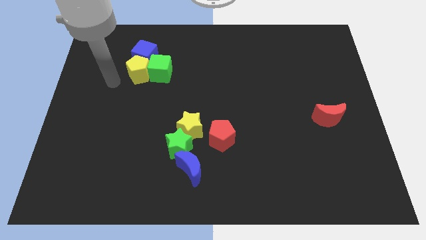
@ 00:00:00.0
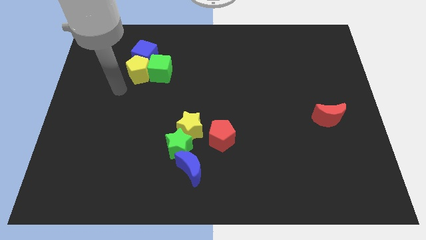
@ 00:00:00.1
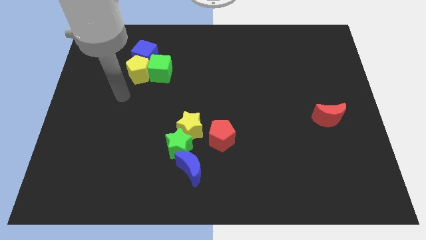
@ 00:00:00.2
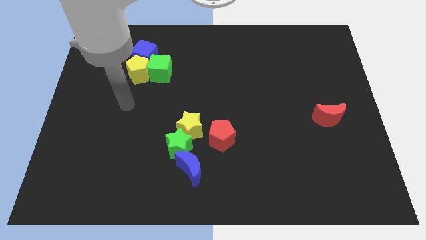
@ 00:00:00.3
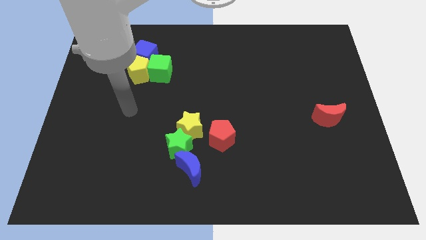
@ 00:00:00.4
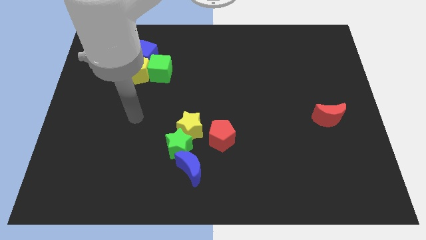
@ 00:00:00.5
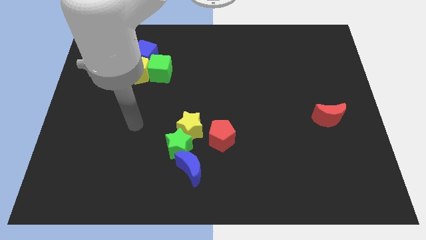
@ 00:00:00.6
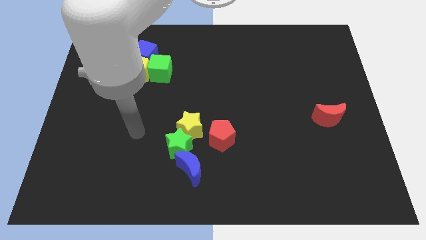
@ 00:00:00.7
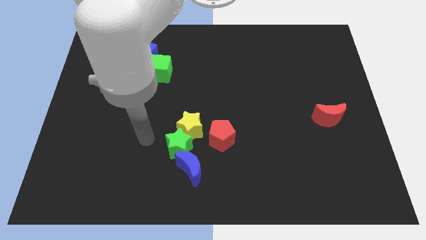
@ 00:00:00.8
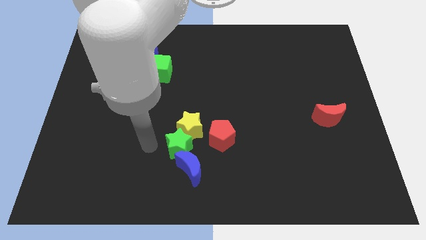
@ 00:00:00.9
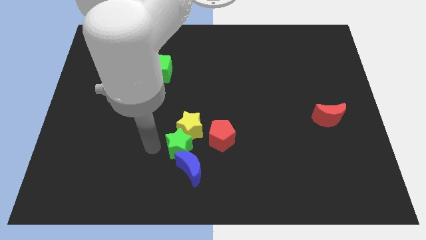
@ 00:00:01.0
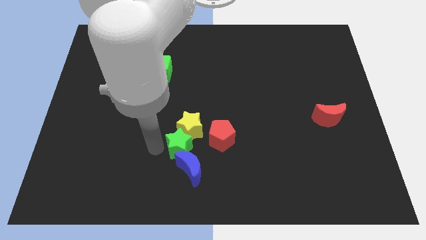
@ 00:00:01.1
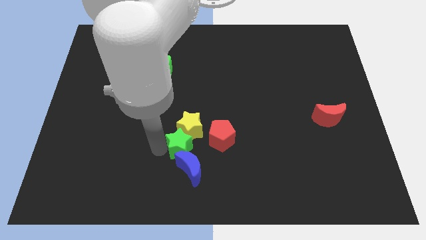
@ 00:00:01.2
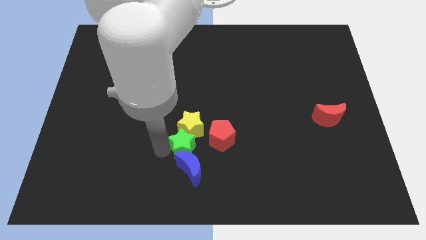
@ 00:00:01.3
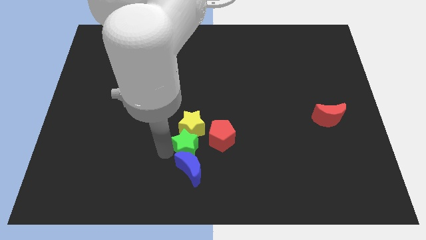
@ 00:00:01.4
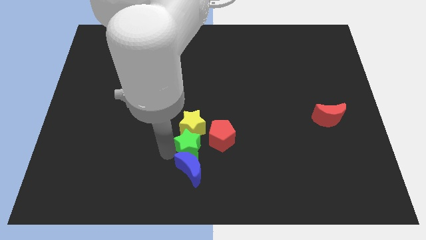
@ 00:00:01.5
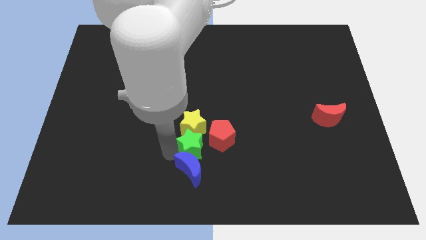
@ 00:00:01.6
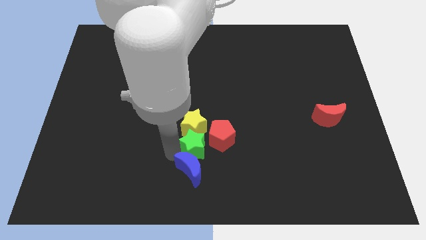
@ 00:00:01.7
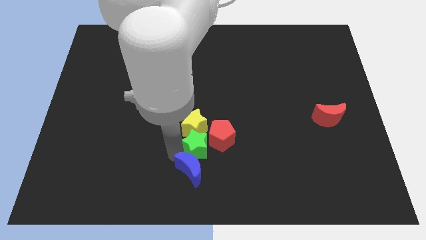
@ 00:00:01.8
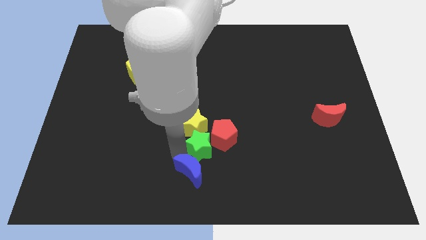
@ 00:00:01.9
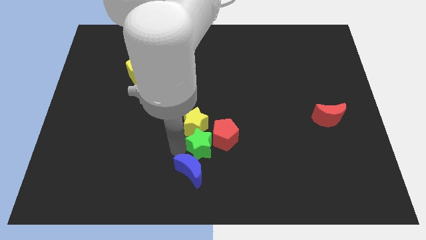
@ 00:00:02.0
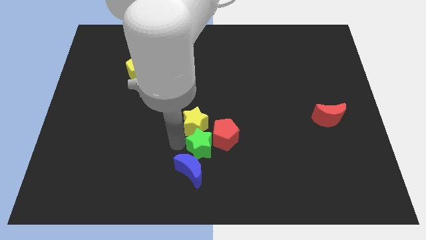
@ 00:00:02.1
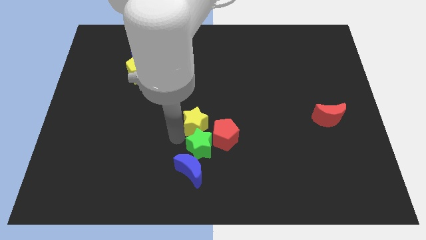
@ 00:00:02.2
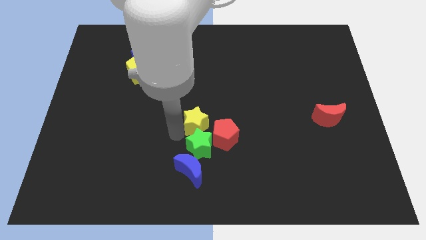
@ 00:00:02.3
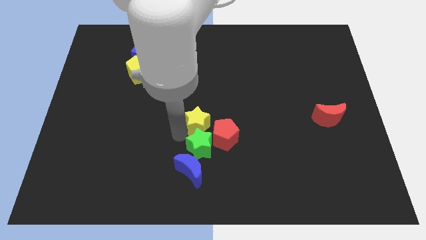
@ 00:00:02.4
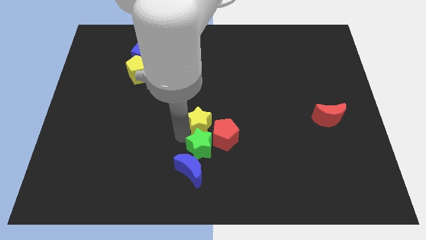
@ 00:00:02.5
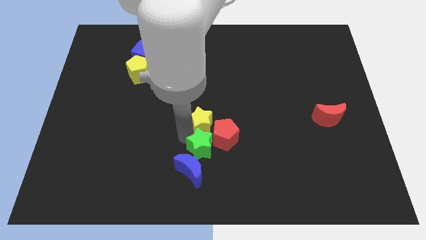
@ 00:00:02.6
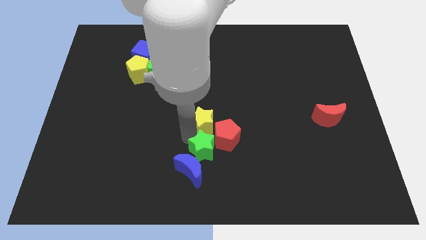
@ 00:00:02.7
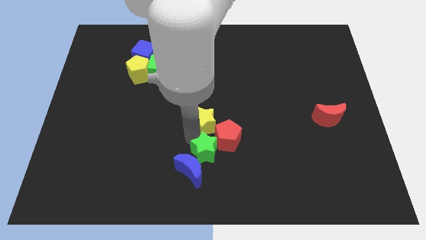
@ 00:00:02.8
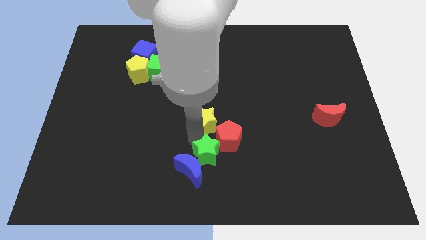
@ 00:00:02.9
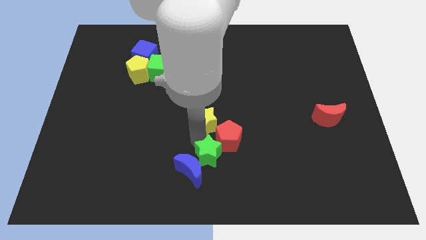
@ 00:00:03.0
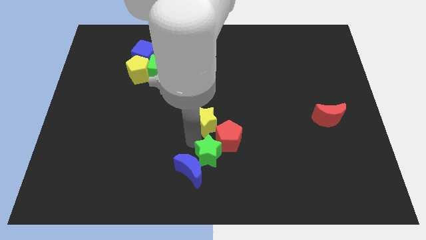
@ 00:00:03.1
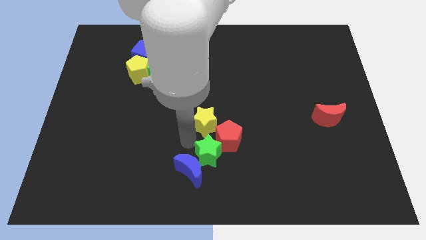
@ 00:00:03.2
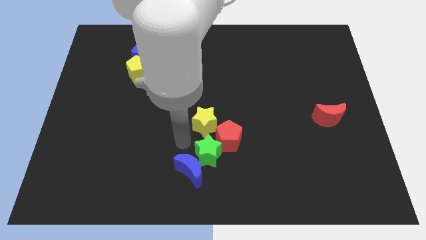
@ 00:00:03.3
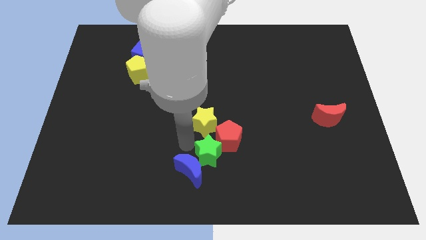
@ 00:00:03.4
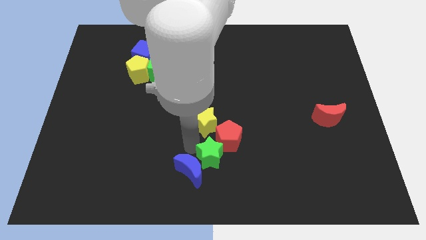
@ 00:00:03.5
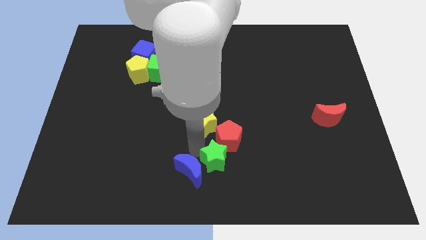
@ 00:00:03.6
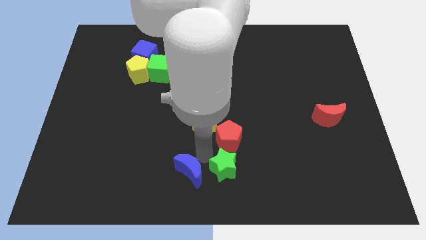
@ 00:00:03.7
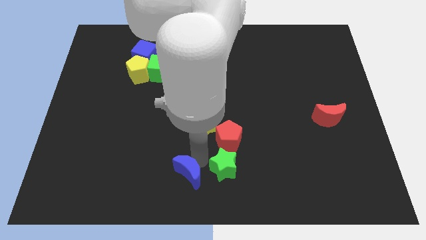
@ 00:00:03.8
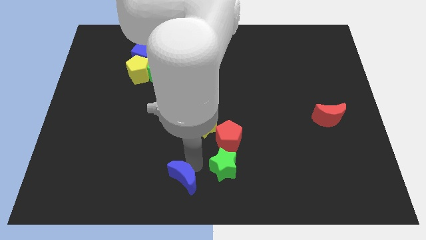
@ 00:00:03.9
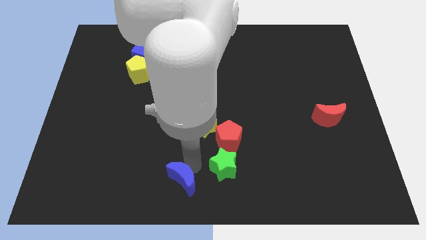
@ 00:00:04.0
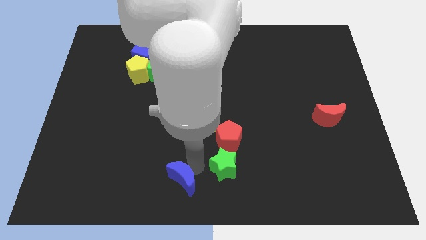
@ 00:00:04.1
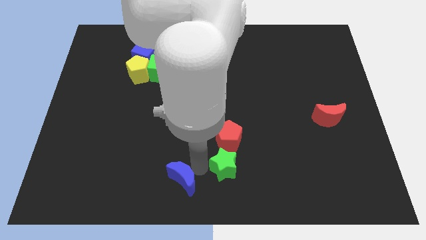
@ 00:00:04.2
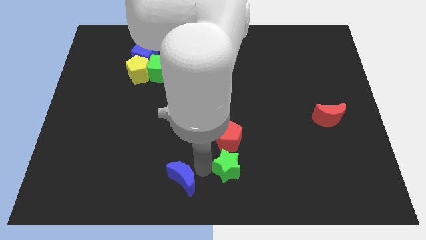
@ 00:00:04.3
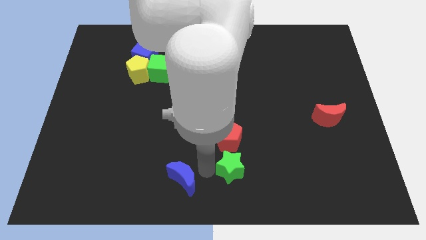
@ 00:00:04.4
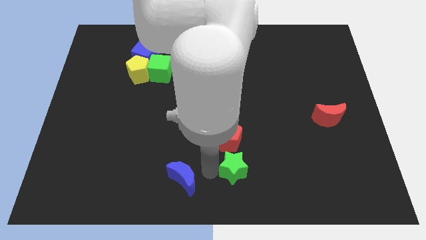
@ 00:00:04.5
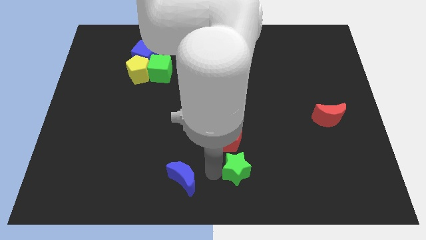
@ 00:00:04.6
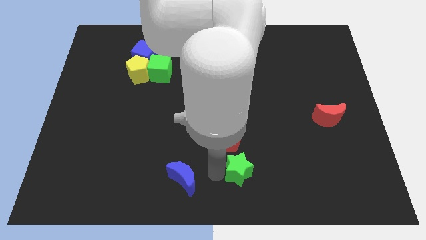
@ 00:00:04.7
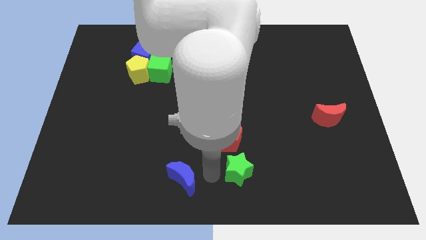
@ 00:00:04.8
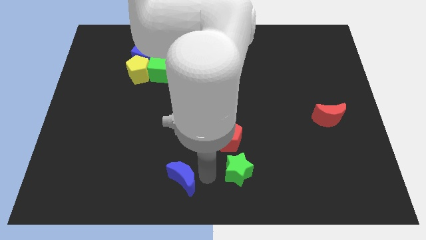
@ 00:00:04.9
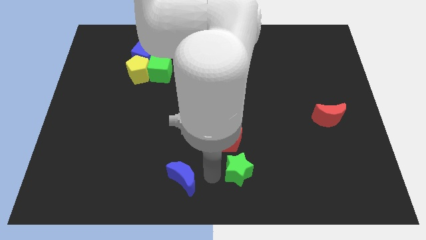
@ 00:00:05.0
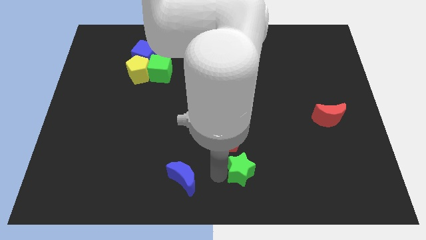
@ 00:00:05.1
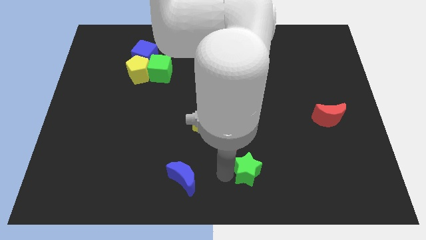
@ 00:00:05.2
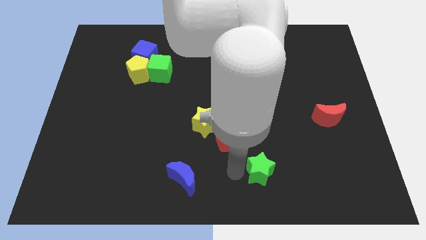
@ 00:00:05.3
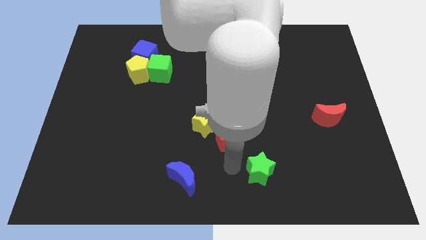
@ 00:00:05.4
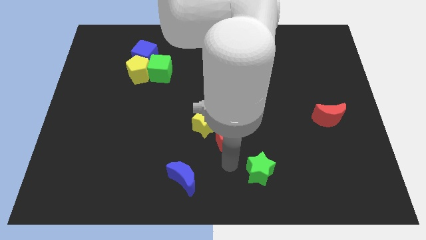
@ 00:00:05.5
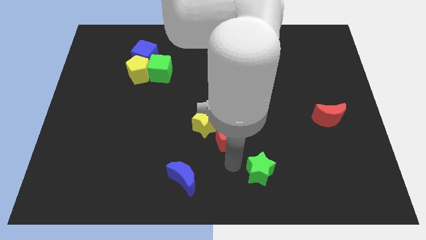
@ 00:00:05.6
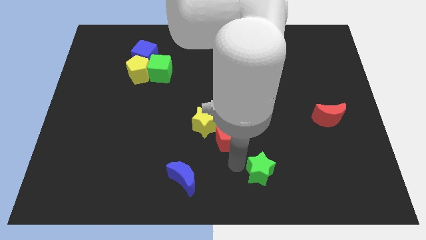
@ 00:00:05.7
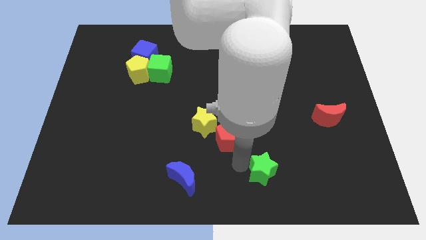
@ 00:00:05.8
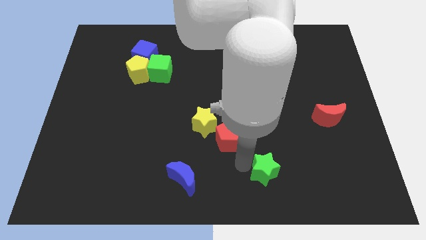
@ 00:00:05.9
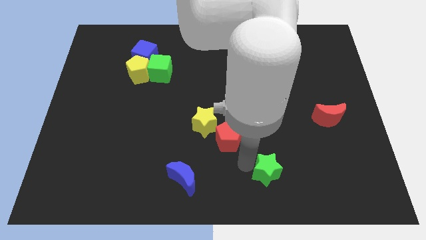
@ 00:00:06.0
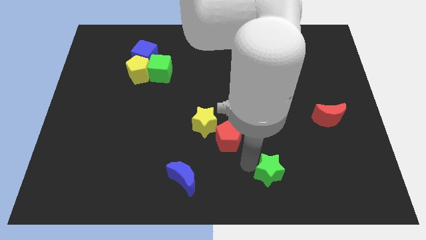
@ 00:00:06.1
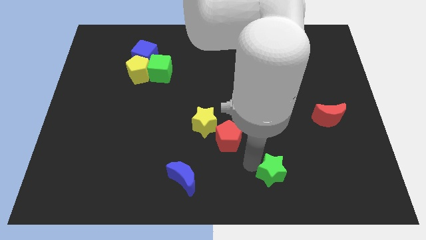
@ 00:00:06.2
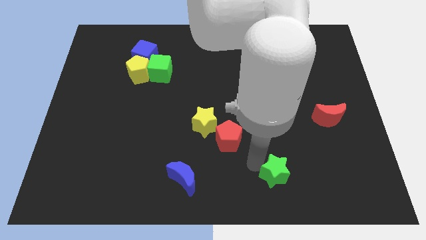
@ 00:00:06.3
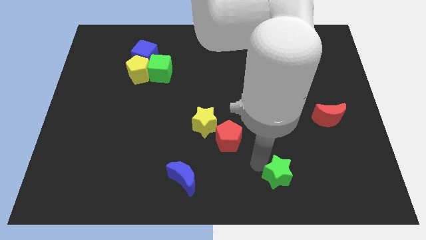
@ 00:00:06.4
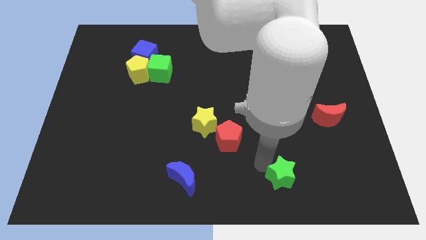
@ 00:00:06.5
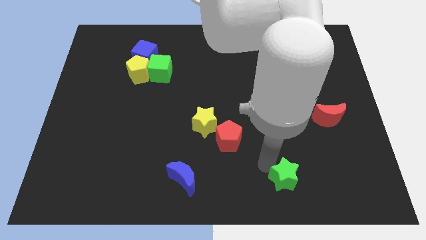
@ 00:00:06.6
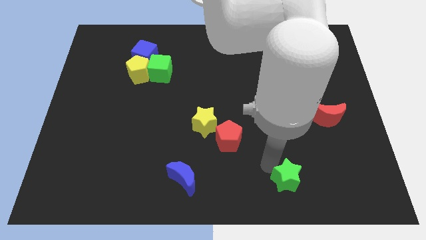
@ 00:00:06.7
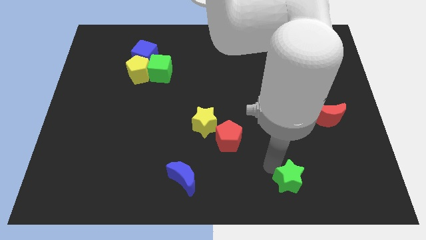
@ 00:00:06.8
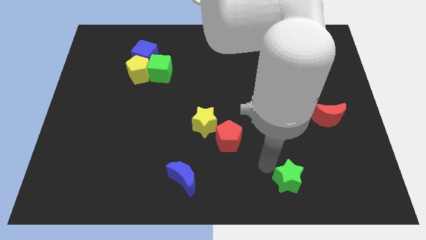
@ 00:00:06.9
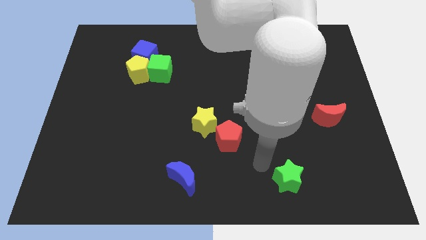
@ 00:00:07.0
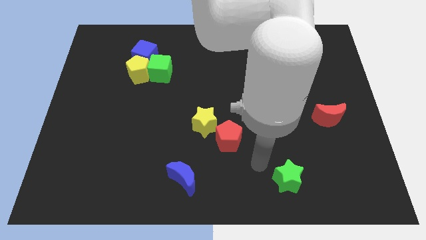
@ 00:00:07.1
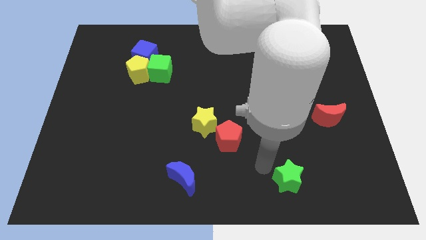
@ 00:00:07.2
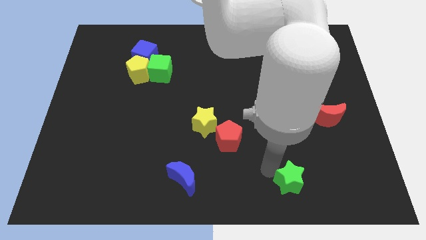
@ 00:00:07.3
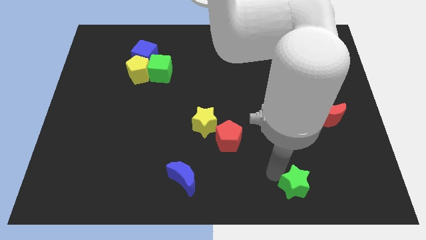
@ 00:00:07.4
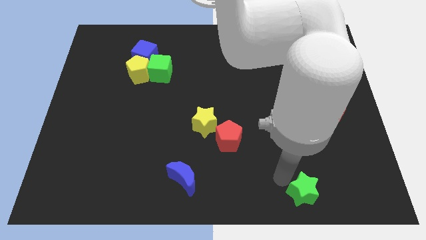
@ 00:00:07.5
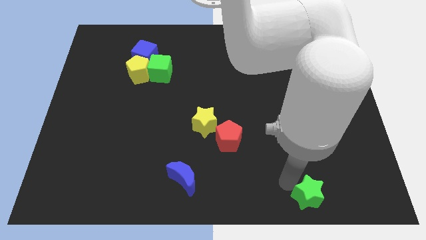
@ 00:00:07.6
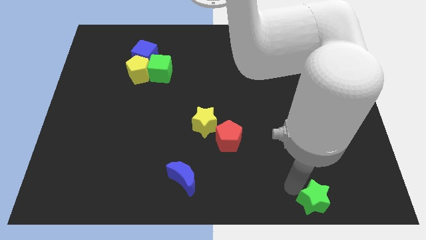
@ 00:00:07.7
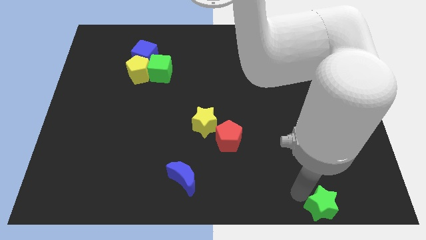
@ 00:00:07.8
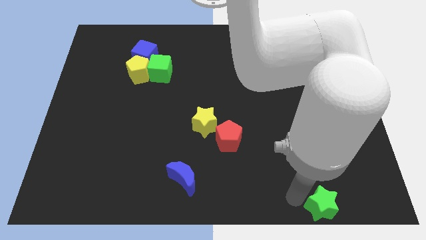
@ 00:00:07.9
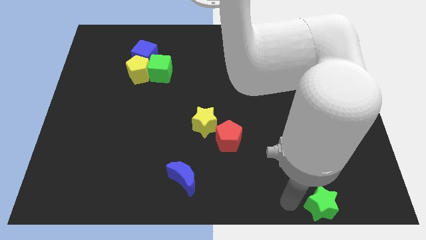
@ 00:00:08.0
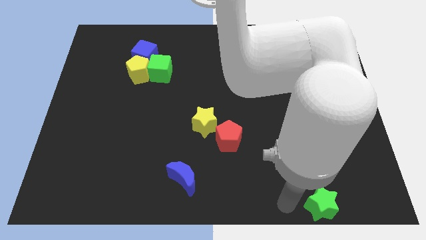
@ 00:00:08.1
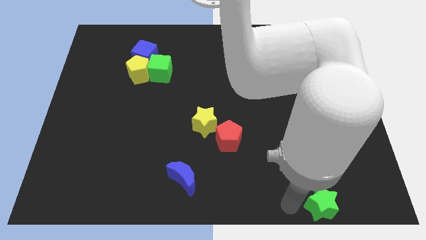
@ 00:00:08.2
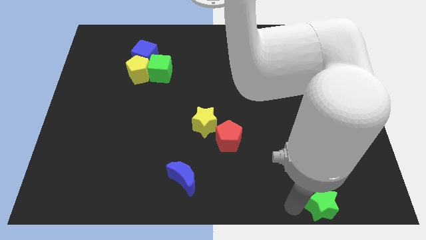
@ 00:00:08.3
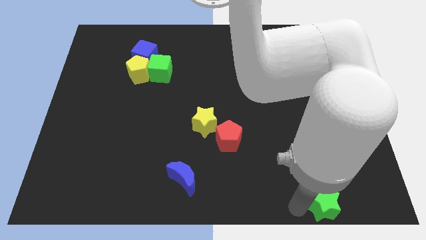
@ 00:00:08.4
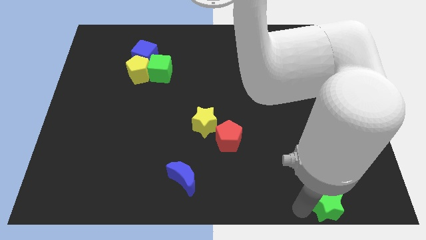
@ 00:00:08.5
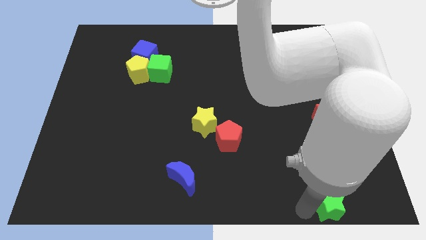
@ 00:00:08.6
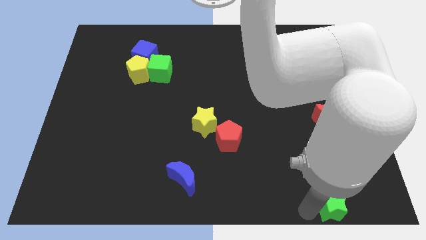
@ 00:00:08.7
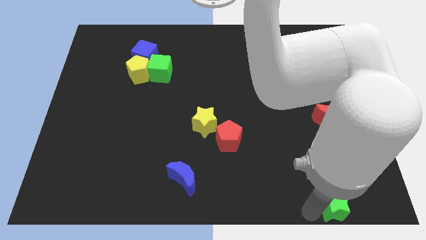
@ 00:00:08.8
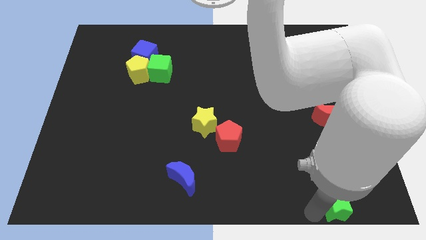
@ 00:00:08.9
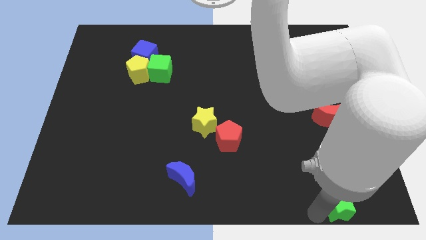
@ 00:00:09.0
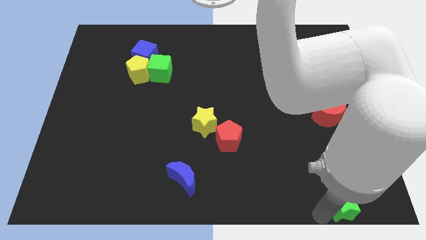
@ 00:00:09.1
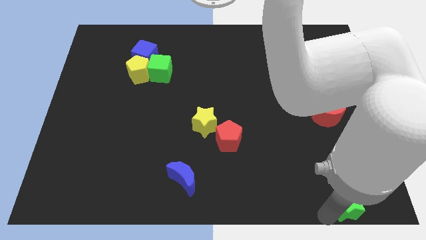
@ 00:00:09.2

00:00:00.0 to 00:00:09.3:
put the green star to the bottom right of the board
